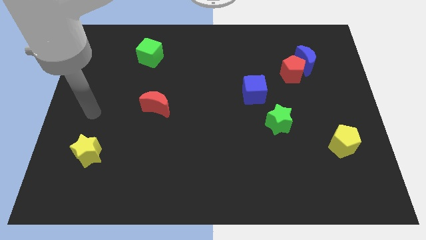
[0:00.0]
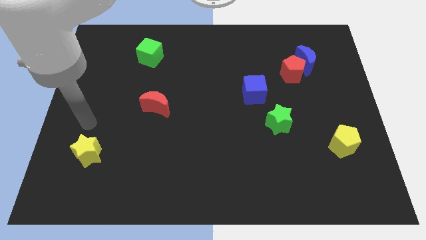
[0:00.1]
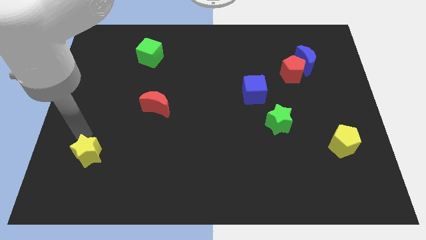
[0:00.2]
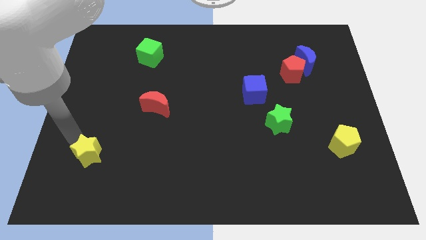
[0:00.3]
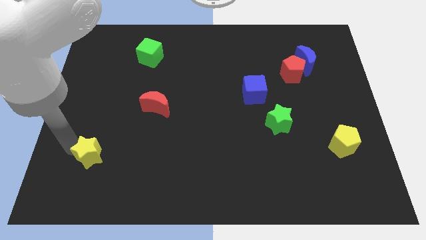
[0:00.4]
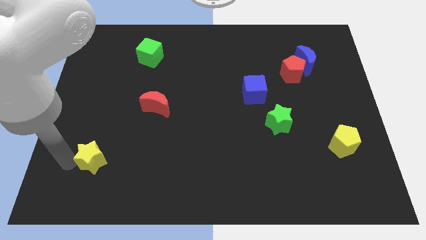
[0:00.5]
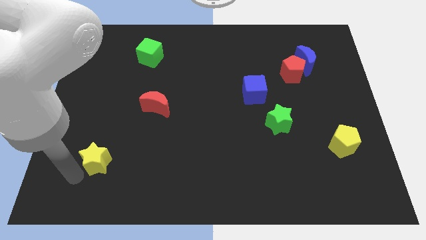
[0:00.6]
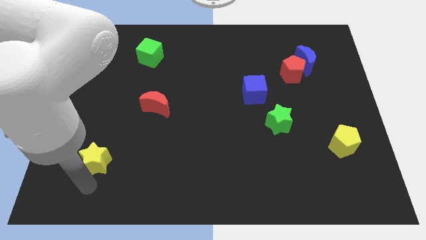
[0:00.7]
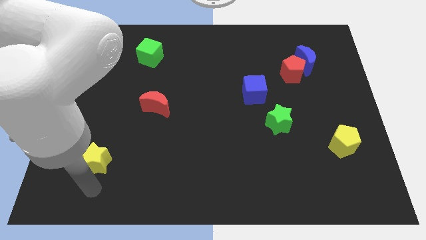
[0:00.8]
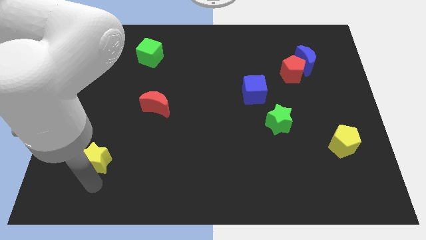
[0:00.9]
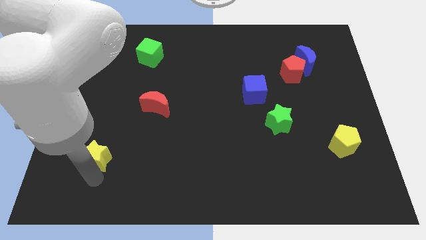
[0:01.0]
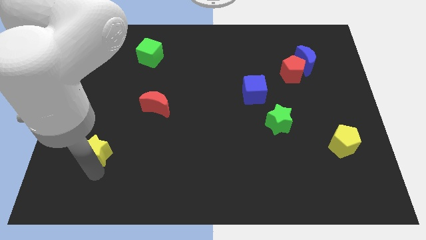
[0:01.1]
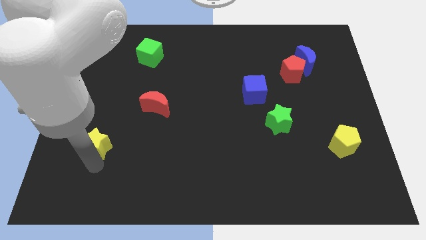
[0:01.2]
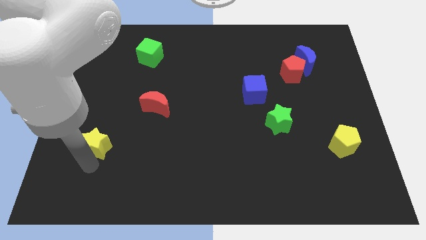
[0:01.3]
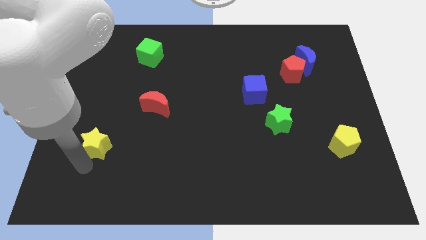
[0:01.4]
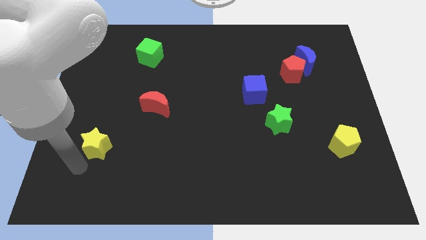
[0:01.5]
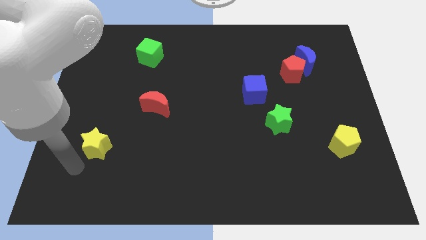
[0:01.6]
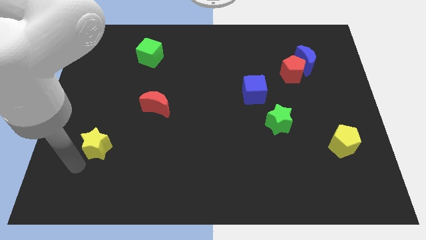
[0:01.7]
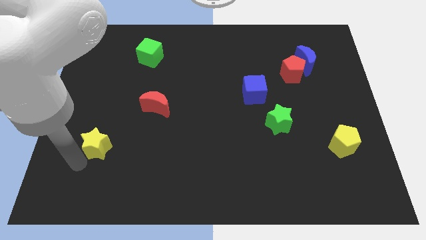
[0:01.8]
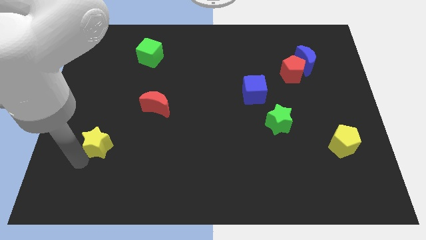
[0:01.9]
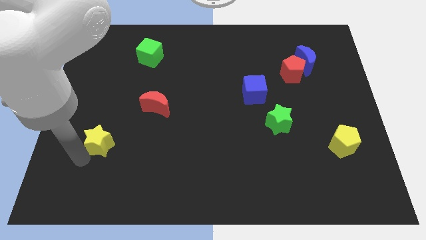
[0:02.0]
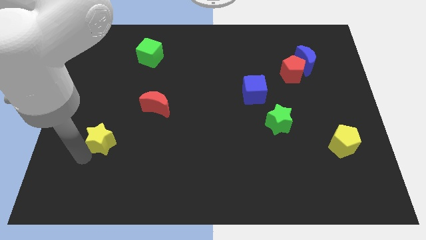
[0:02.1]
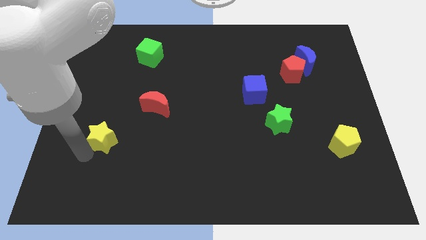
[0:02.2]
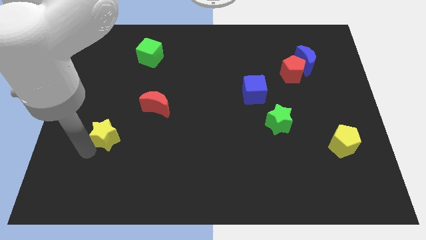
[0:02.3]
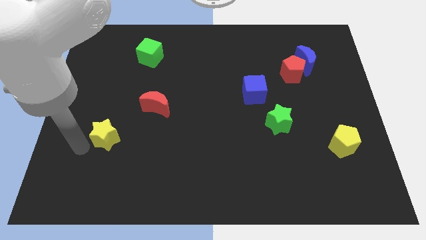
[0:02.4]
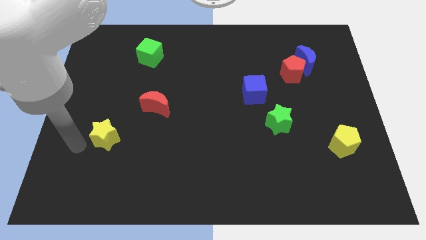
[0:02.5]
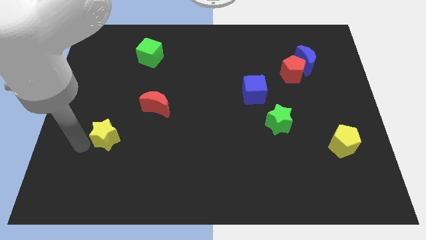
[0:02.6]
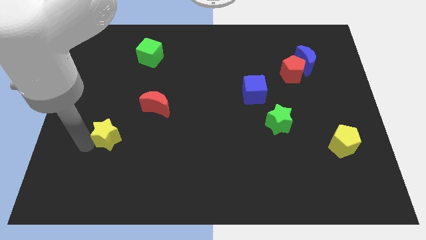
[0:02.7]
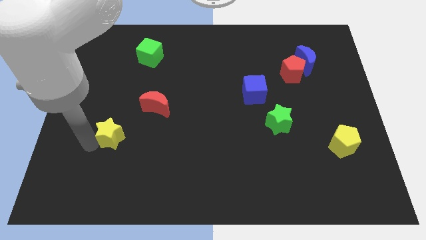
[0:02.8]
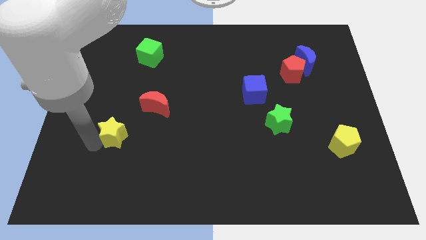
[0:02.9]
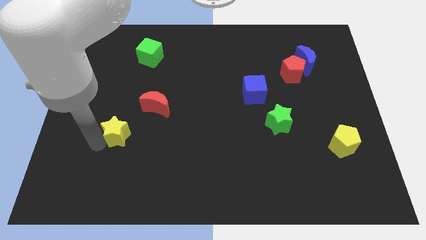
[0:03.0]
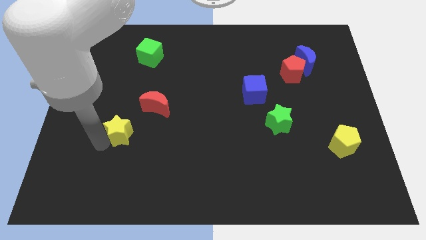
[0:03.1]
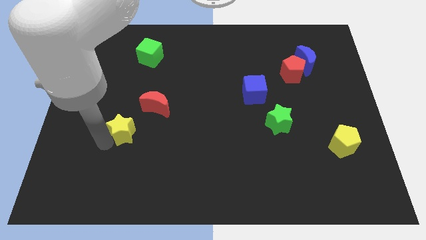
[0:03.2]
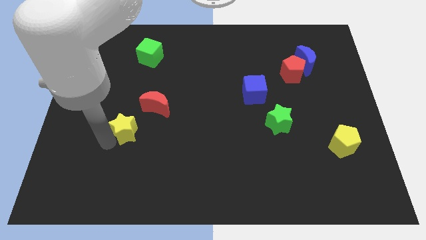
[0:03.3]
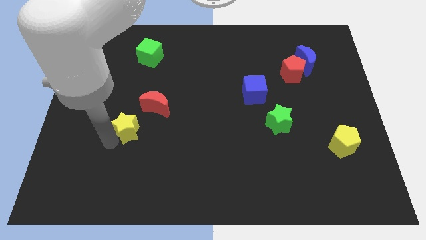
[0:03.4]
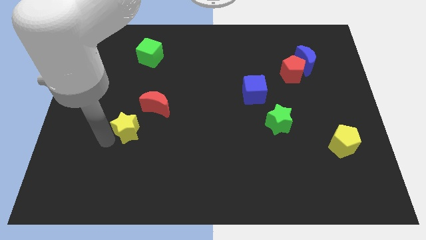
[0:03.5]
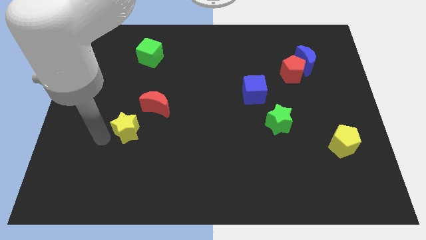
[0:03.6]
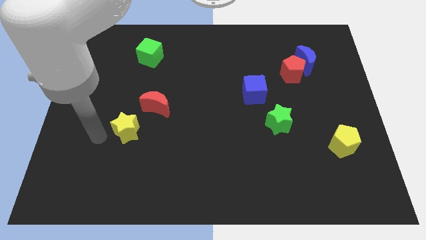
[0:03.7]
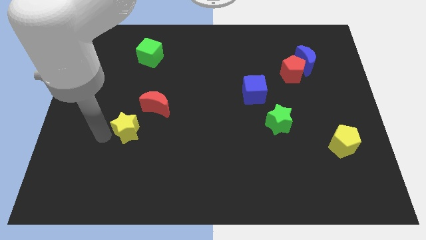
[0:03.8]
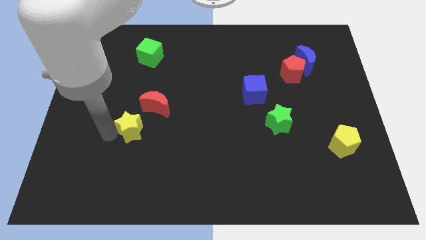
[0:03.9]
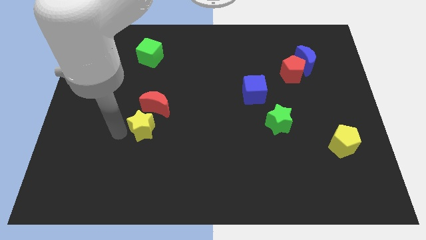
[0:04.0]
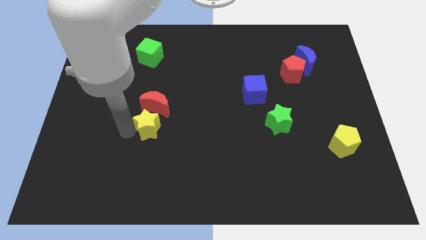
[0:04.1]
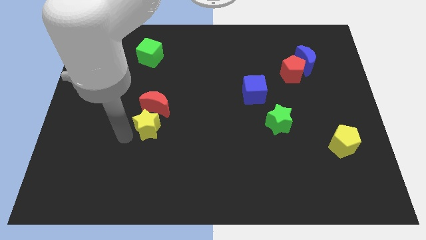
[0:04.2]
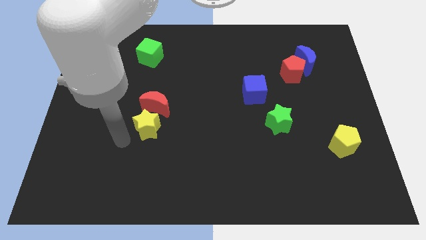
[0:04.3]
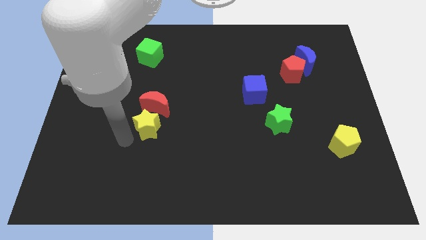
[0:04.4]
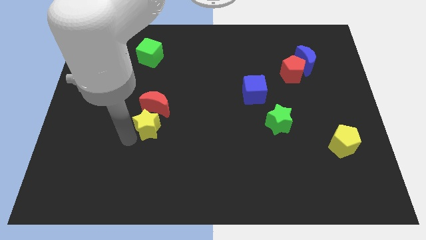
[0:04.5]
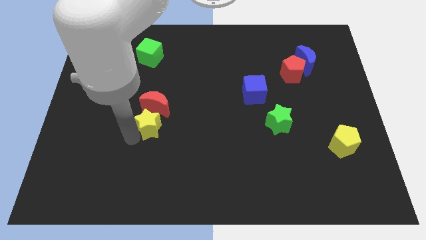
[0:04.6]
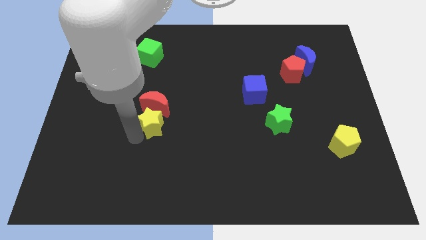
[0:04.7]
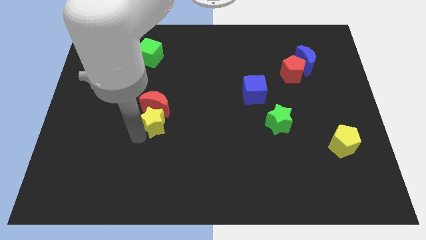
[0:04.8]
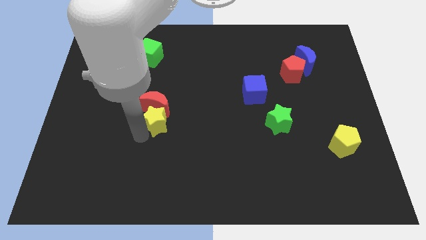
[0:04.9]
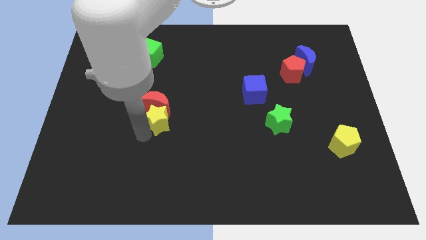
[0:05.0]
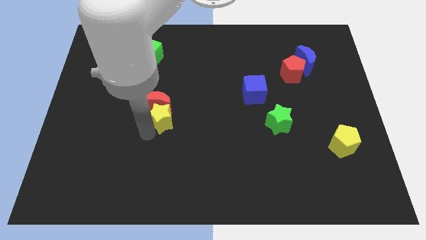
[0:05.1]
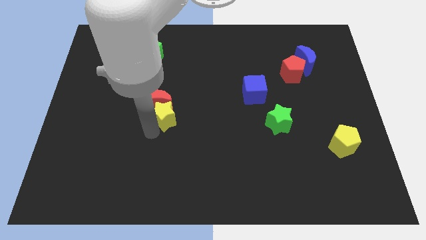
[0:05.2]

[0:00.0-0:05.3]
move the yellow star to the middle
